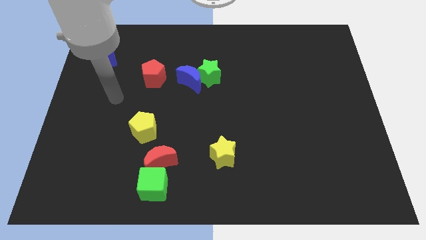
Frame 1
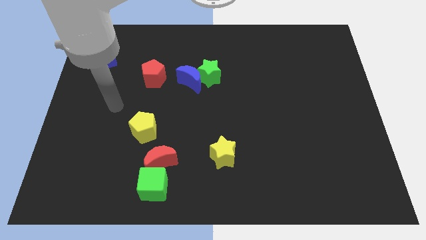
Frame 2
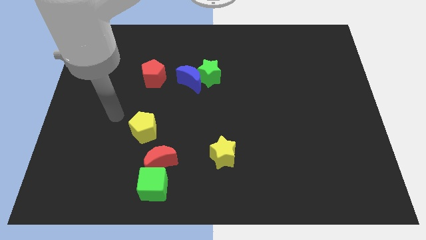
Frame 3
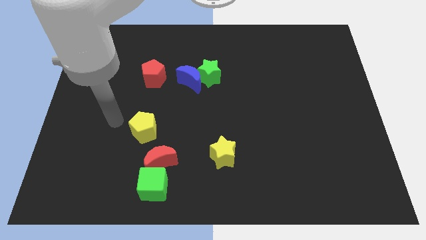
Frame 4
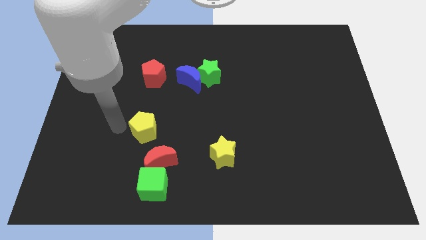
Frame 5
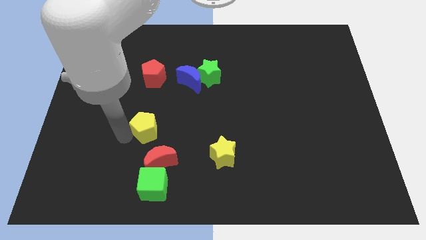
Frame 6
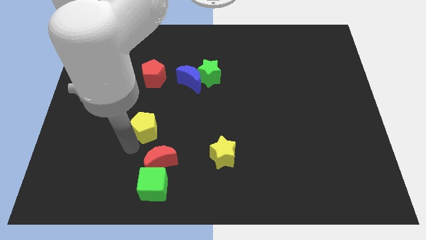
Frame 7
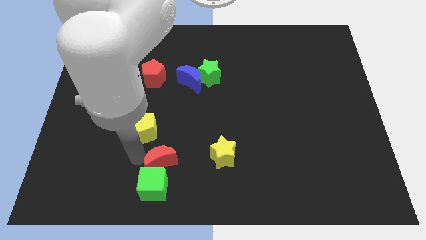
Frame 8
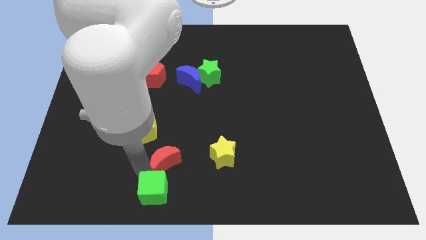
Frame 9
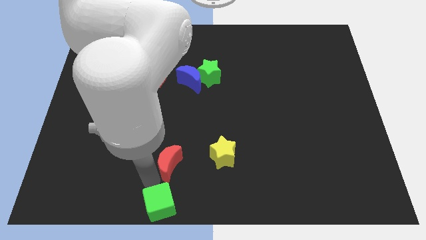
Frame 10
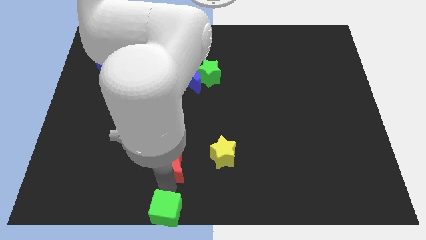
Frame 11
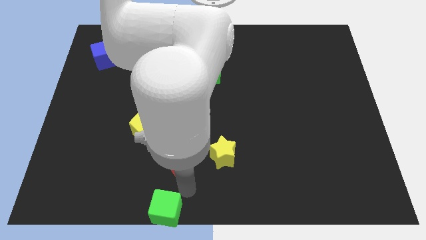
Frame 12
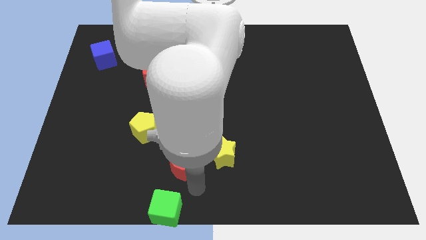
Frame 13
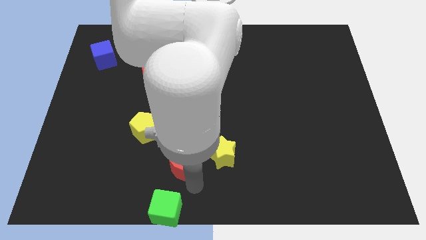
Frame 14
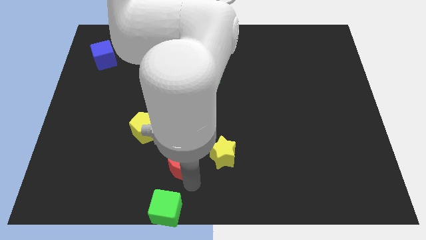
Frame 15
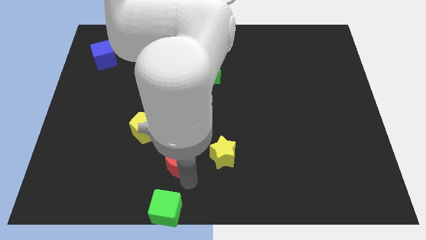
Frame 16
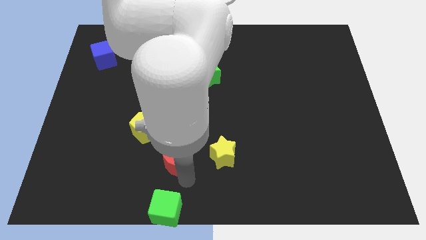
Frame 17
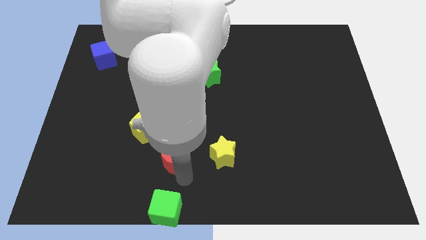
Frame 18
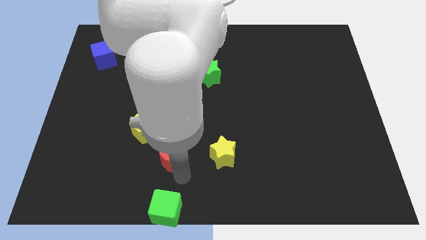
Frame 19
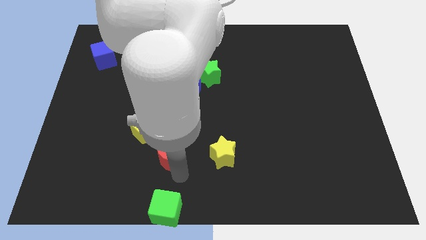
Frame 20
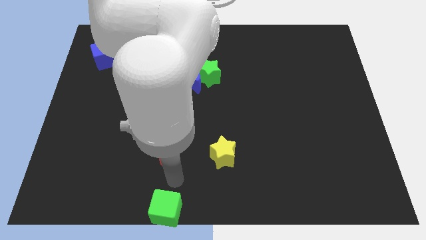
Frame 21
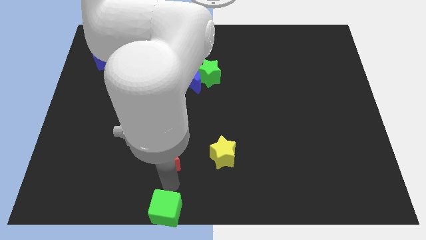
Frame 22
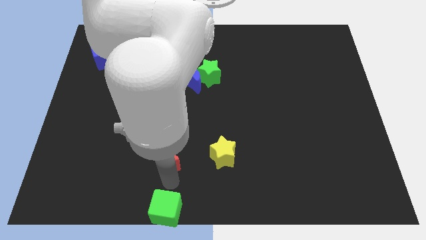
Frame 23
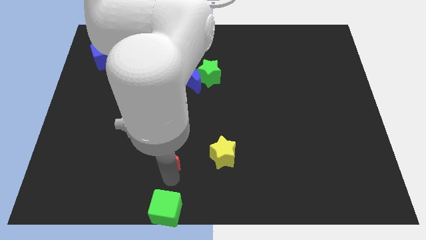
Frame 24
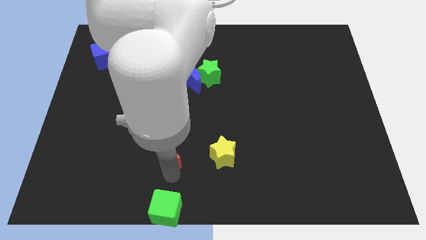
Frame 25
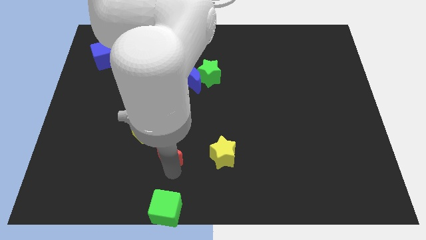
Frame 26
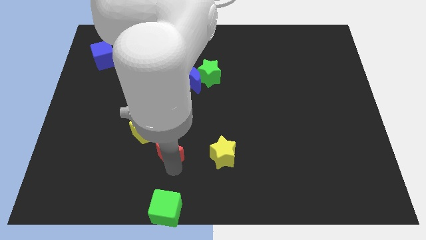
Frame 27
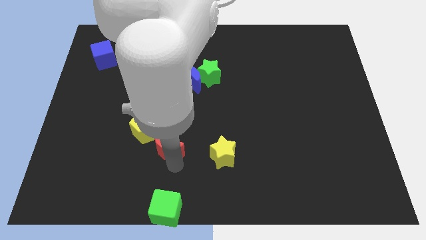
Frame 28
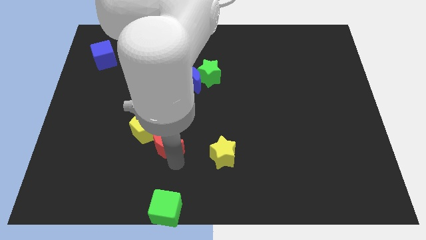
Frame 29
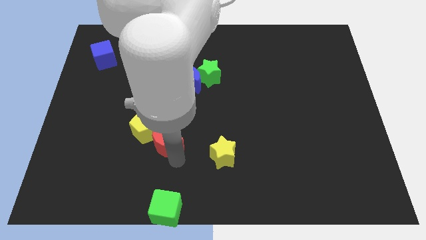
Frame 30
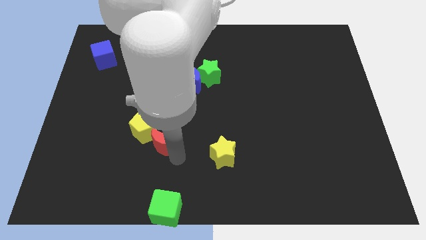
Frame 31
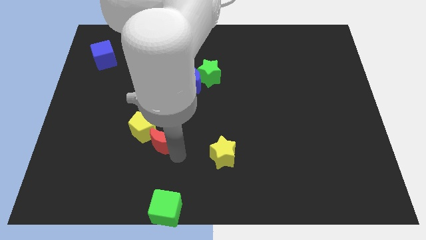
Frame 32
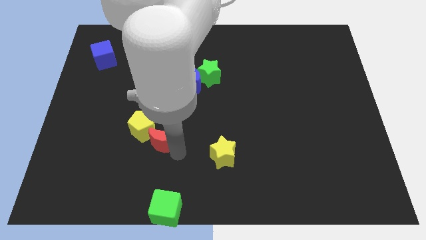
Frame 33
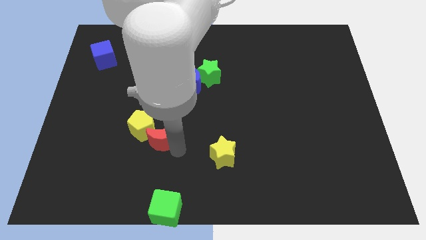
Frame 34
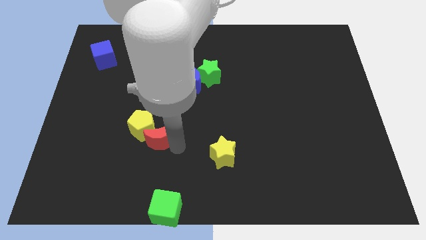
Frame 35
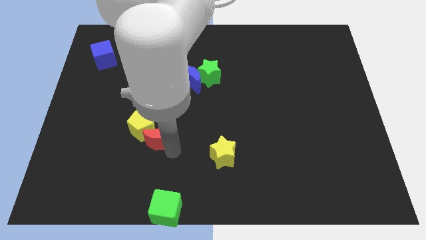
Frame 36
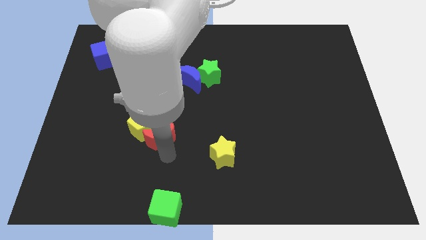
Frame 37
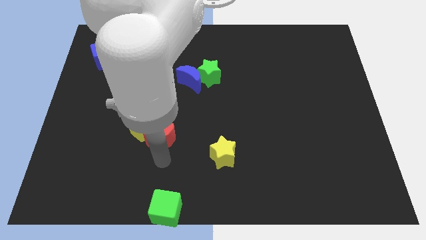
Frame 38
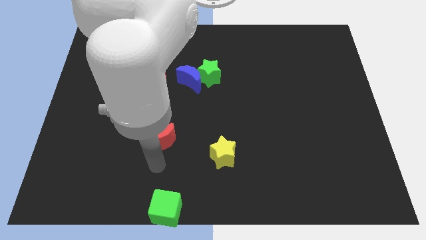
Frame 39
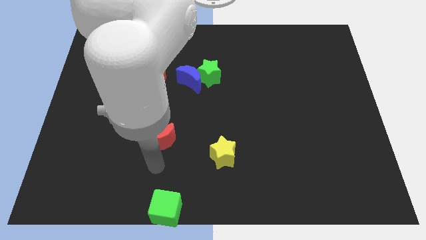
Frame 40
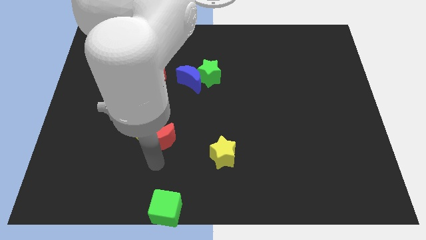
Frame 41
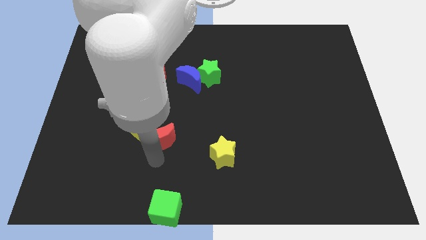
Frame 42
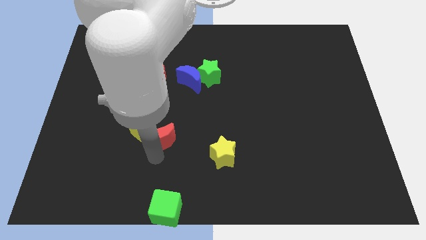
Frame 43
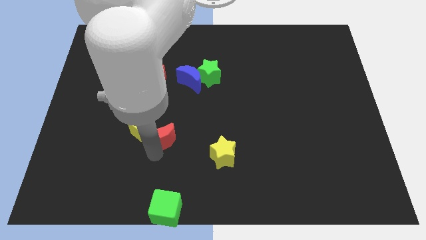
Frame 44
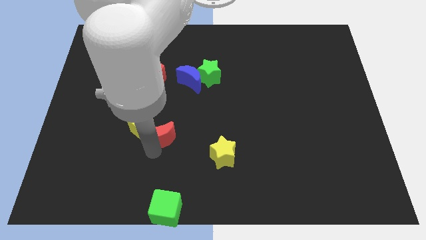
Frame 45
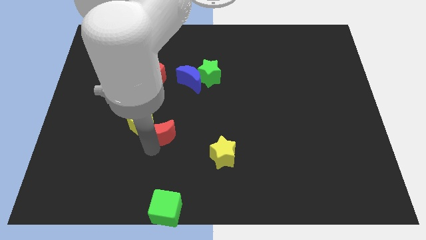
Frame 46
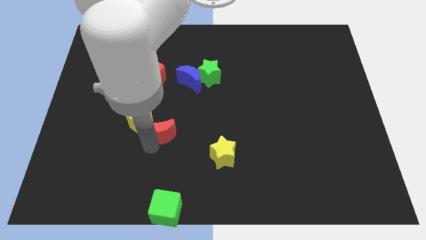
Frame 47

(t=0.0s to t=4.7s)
move the red moon up a bit

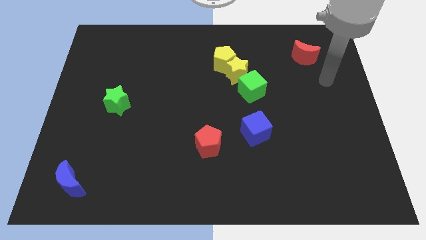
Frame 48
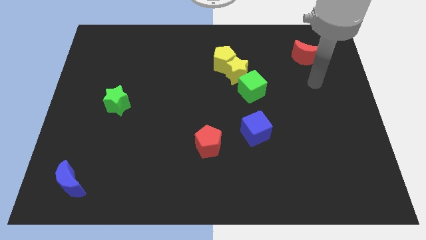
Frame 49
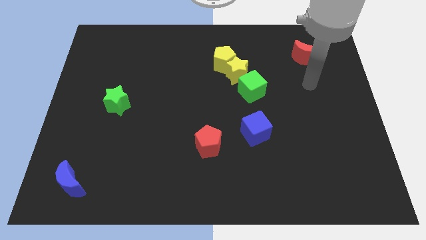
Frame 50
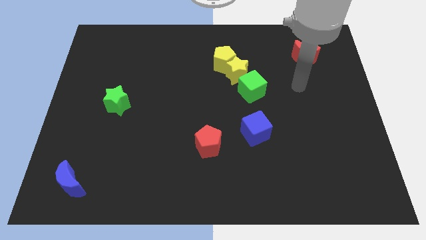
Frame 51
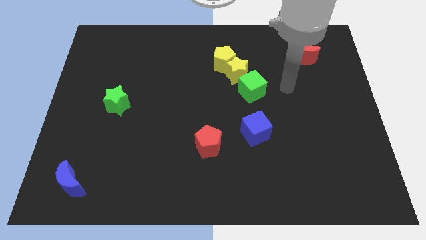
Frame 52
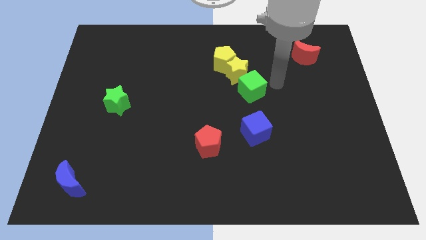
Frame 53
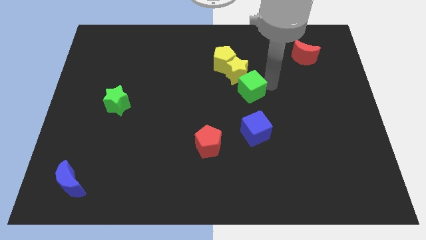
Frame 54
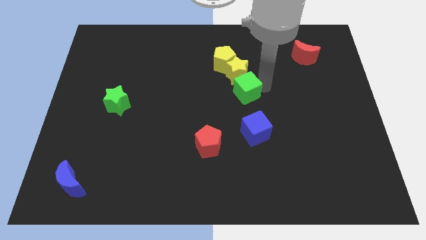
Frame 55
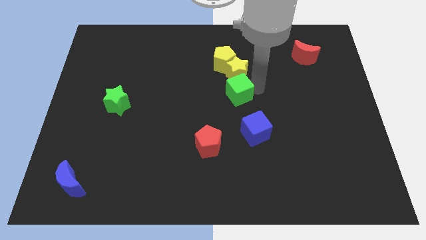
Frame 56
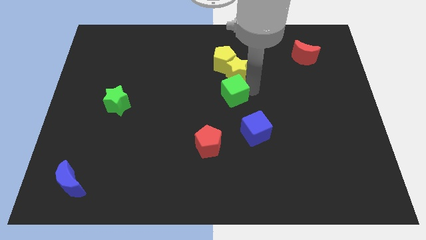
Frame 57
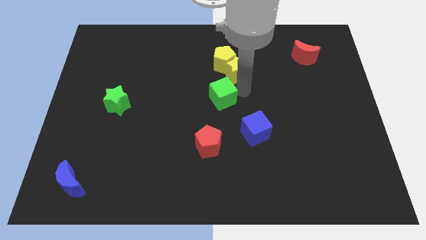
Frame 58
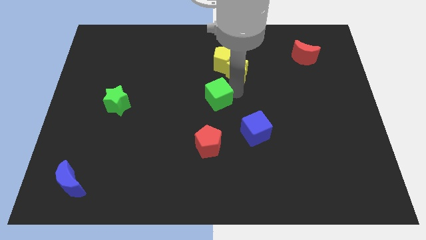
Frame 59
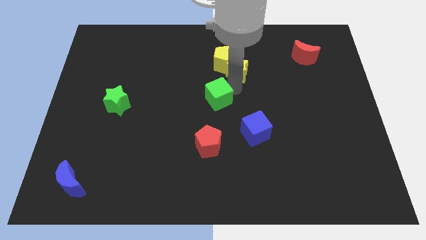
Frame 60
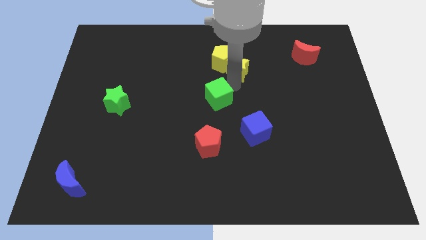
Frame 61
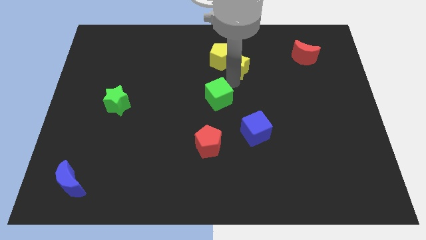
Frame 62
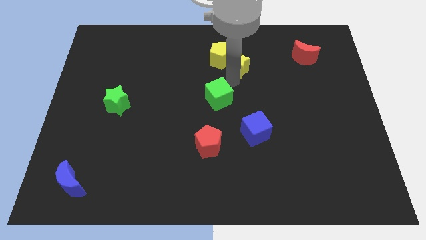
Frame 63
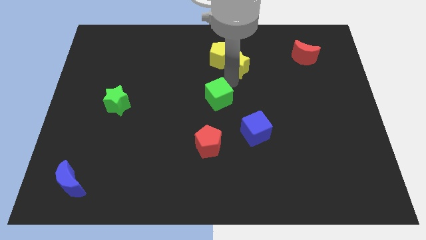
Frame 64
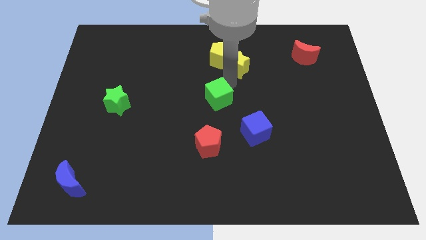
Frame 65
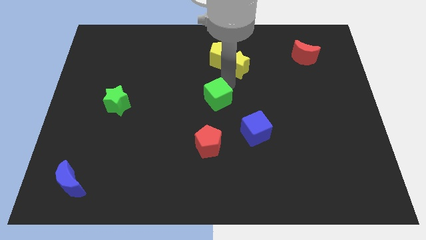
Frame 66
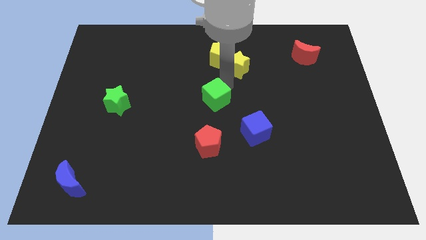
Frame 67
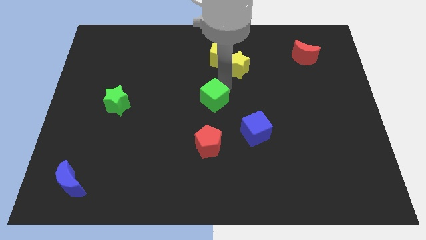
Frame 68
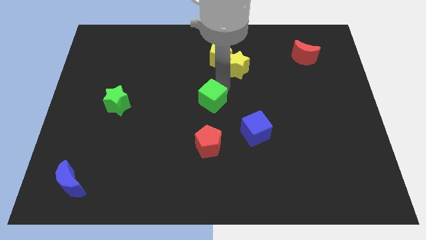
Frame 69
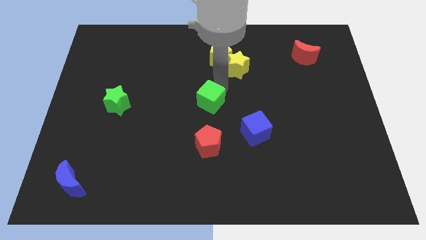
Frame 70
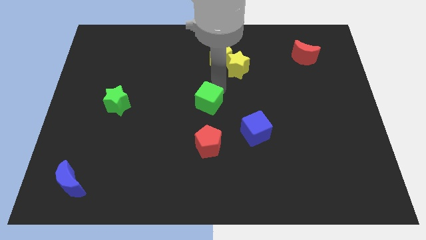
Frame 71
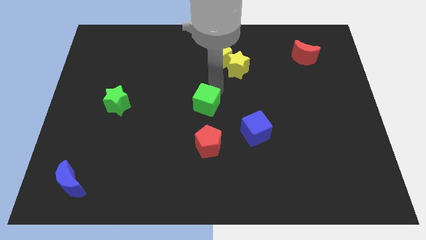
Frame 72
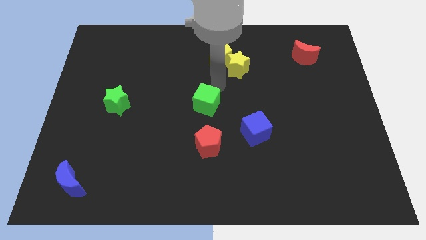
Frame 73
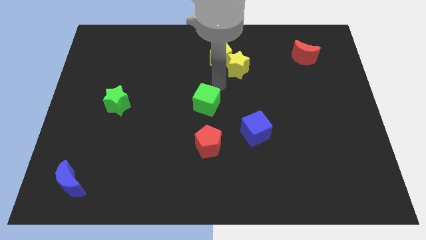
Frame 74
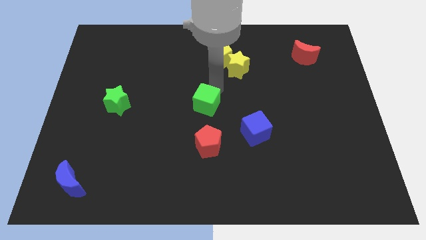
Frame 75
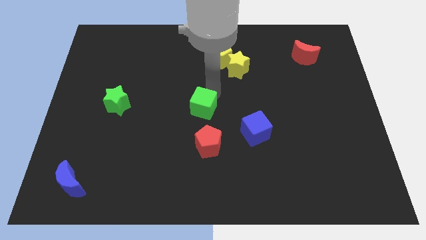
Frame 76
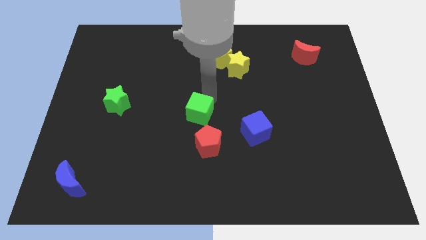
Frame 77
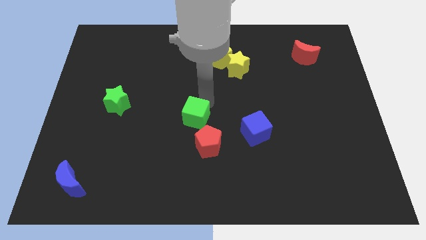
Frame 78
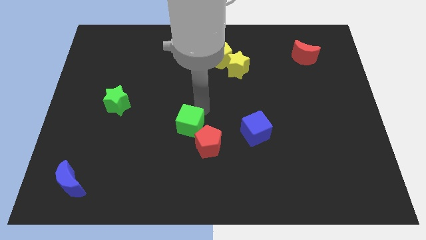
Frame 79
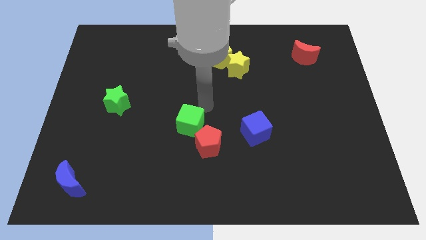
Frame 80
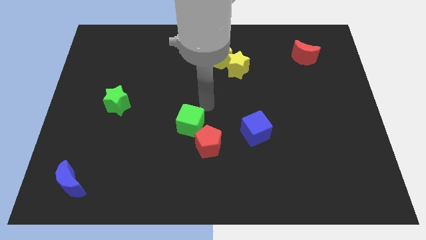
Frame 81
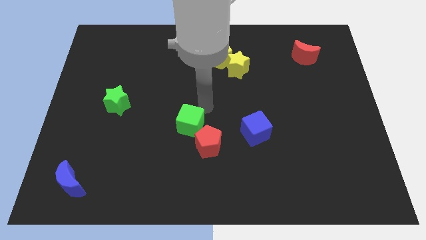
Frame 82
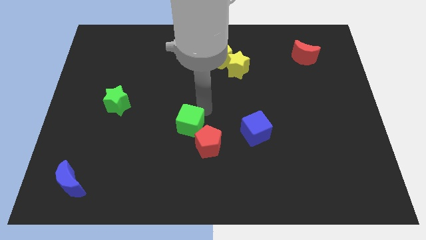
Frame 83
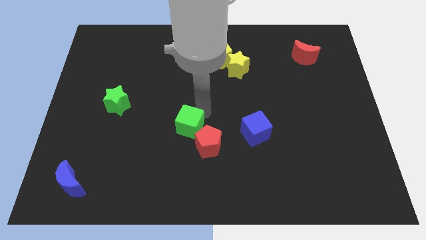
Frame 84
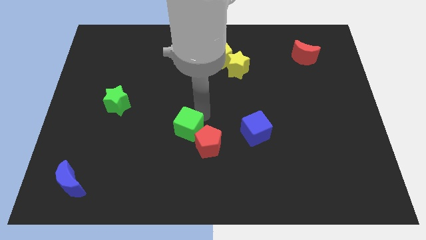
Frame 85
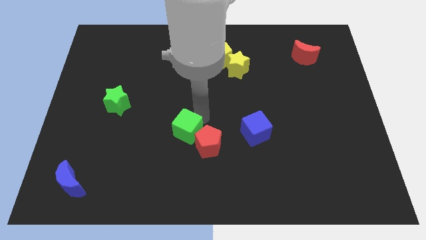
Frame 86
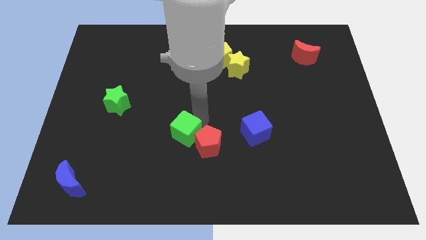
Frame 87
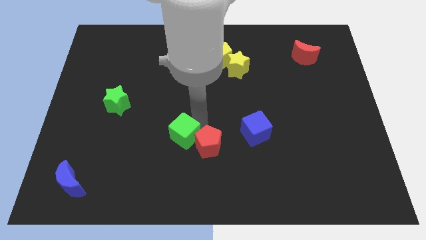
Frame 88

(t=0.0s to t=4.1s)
move the green cube downwards and then to the left
